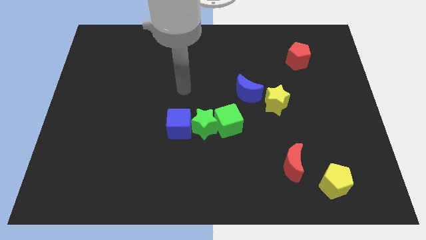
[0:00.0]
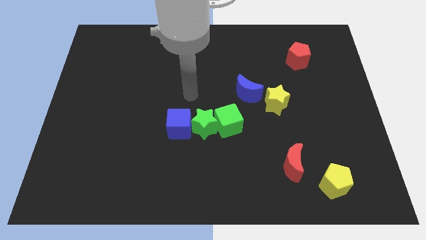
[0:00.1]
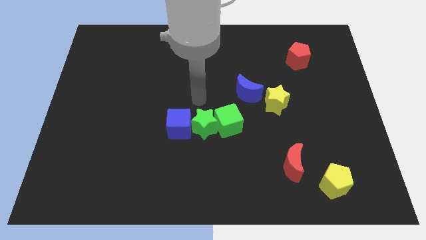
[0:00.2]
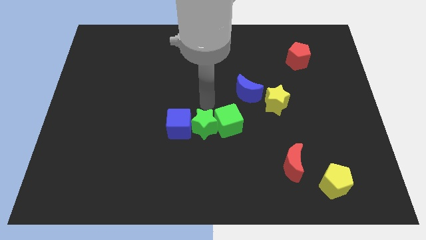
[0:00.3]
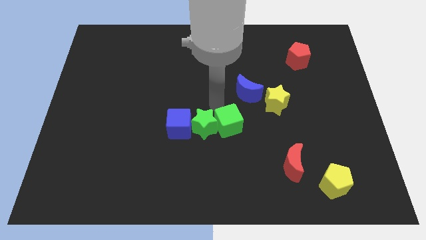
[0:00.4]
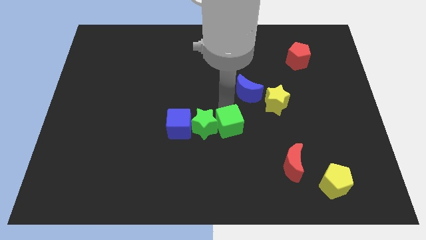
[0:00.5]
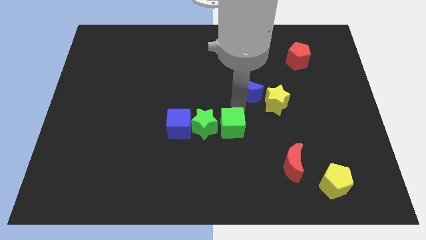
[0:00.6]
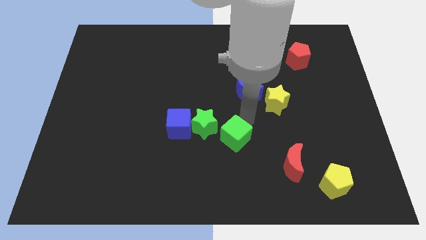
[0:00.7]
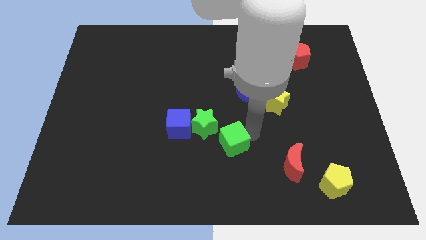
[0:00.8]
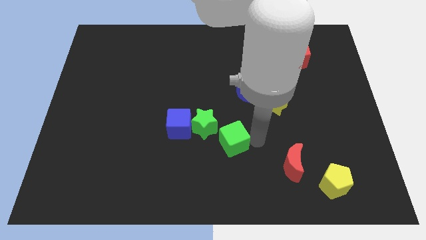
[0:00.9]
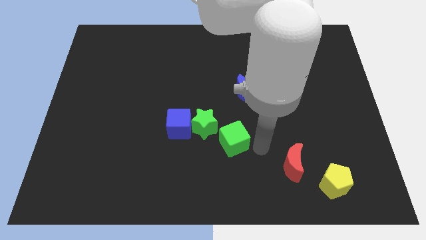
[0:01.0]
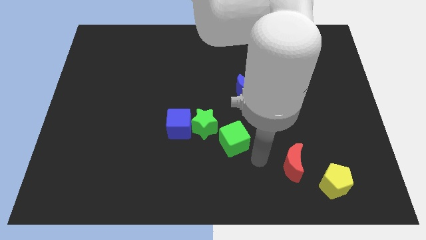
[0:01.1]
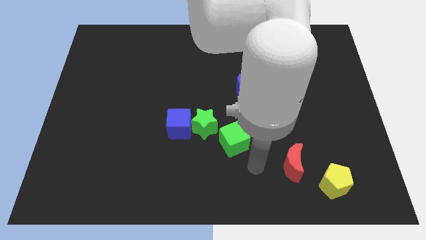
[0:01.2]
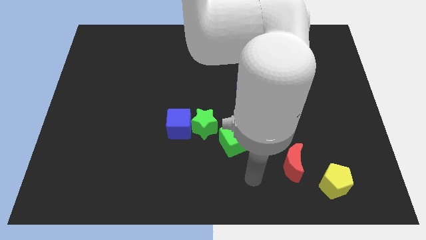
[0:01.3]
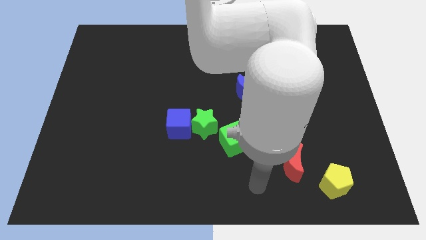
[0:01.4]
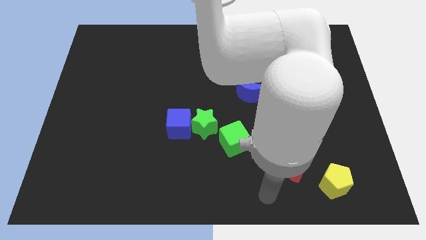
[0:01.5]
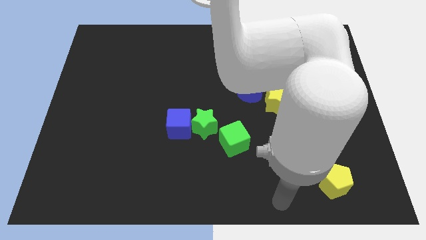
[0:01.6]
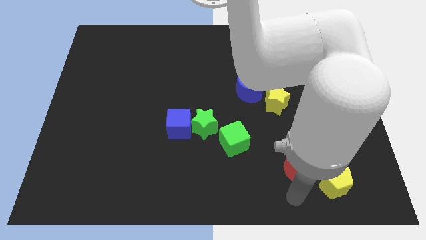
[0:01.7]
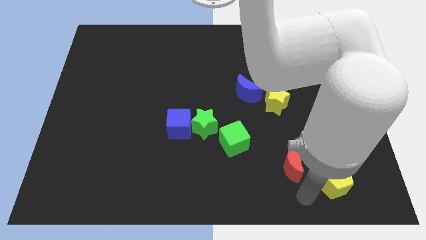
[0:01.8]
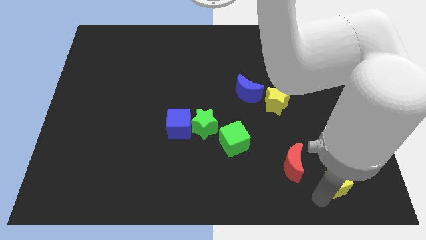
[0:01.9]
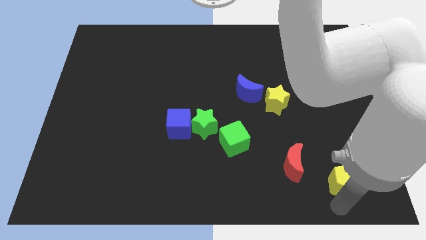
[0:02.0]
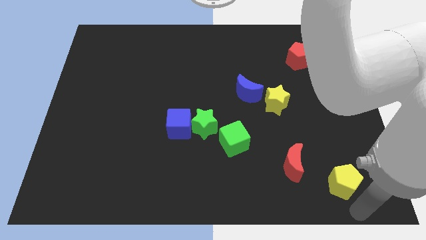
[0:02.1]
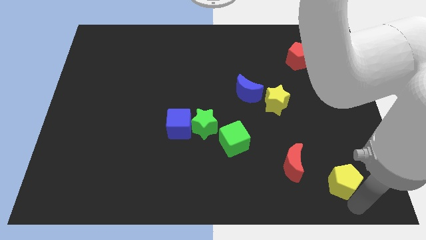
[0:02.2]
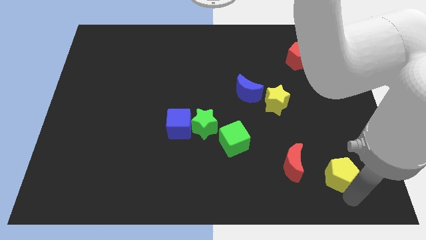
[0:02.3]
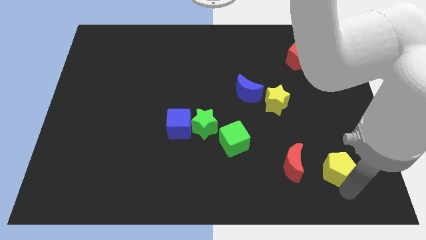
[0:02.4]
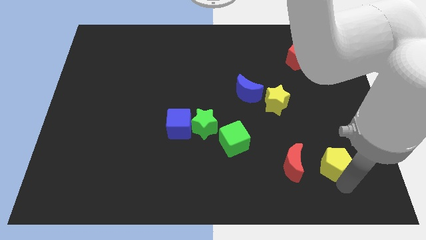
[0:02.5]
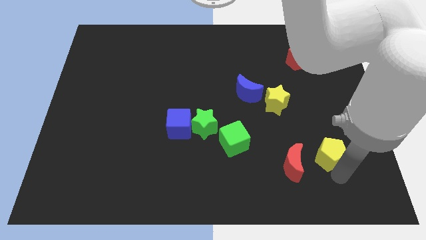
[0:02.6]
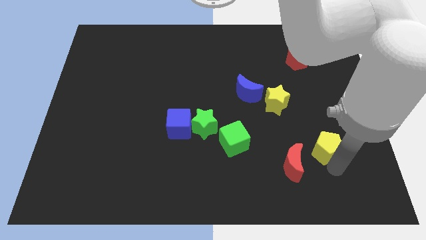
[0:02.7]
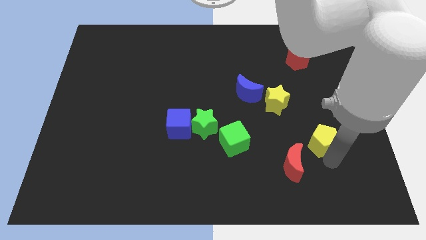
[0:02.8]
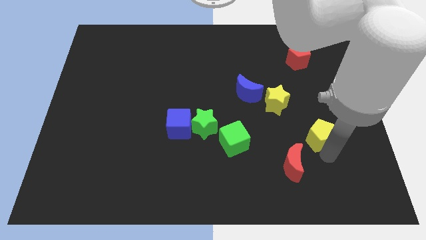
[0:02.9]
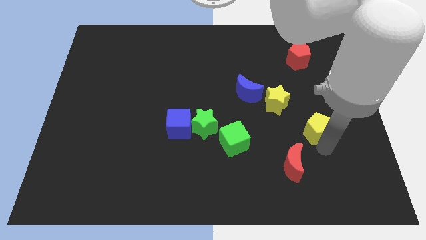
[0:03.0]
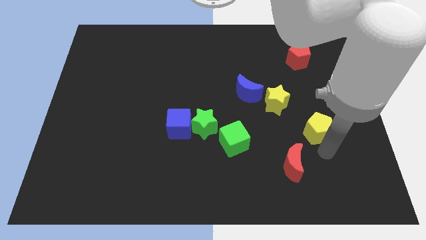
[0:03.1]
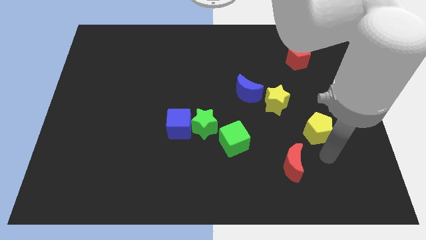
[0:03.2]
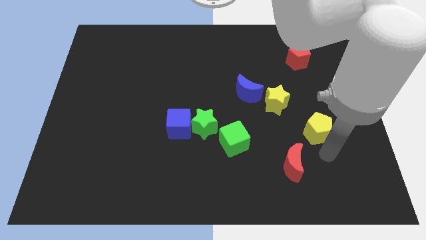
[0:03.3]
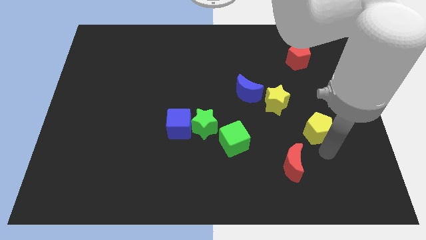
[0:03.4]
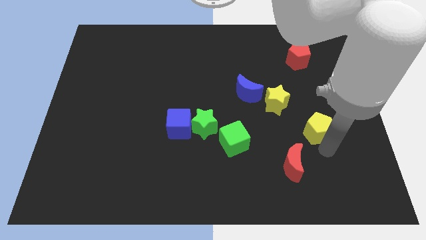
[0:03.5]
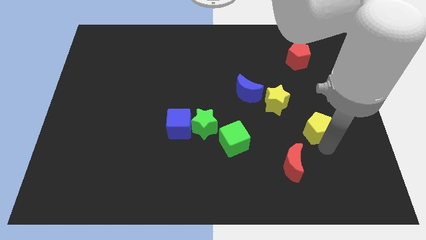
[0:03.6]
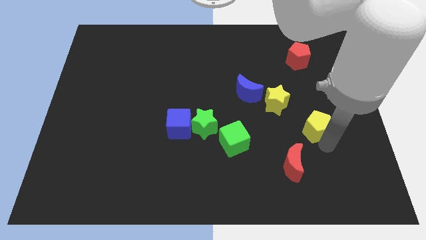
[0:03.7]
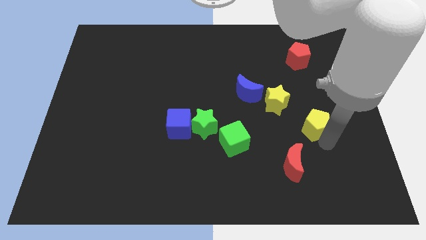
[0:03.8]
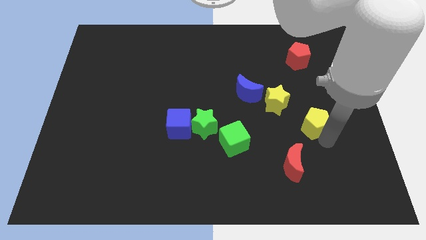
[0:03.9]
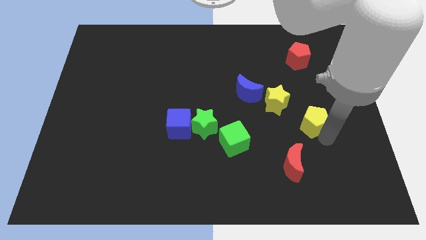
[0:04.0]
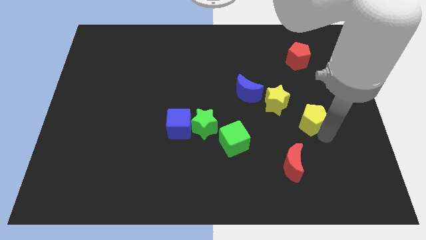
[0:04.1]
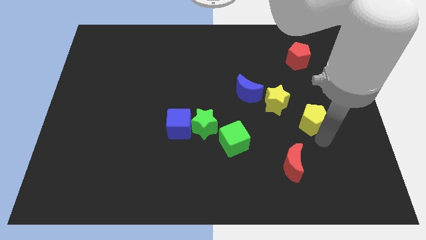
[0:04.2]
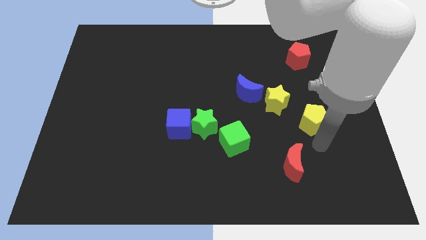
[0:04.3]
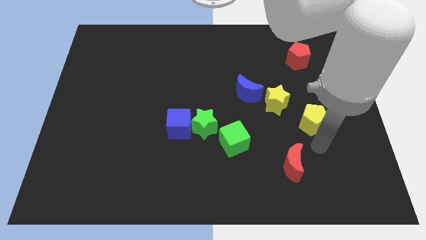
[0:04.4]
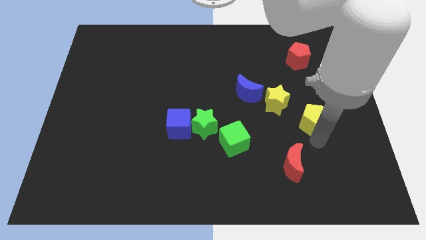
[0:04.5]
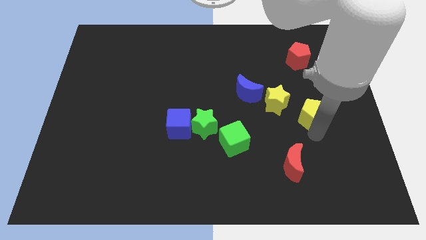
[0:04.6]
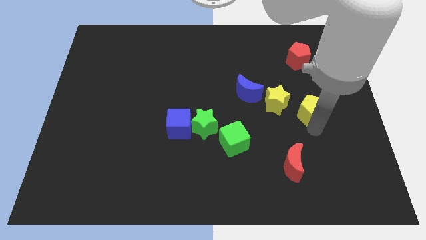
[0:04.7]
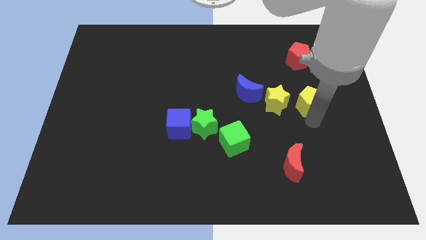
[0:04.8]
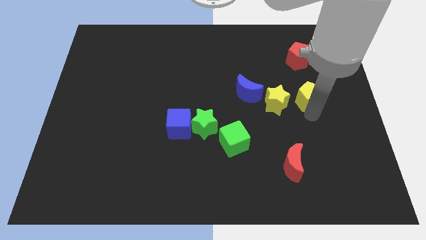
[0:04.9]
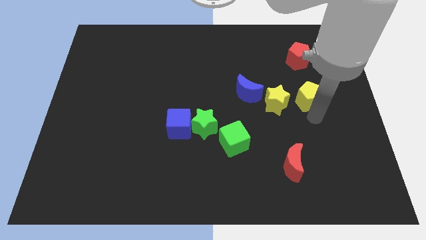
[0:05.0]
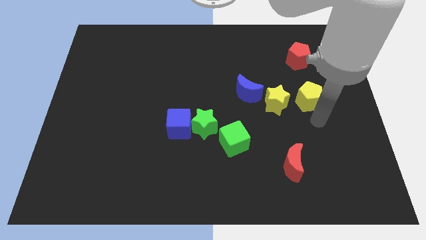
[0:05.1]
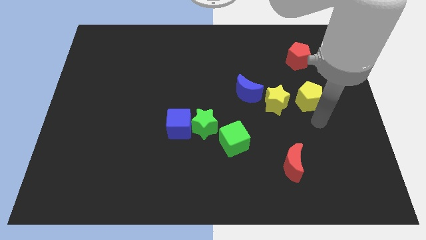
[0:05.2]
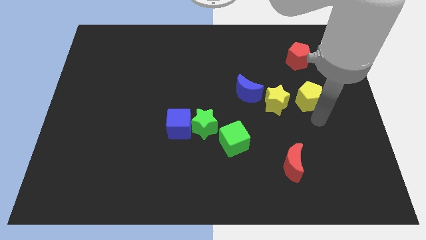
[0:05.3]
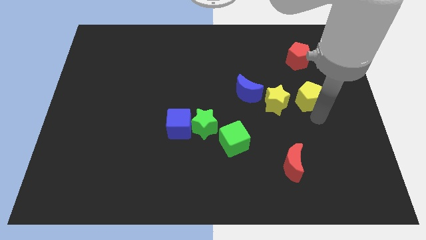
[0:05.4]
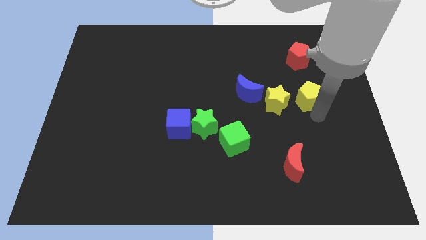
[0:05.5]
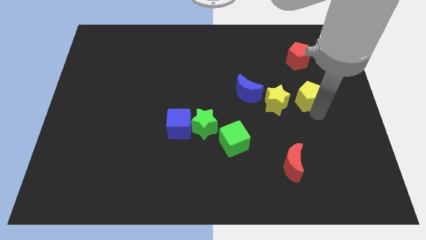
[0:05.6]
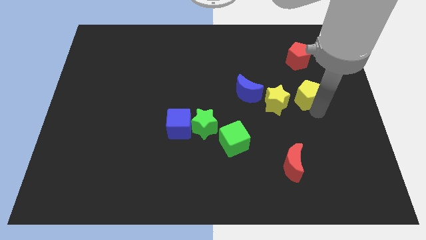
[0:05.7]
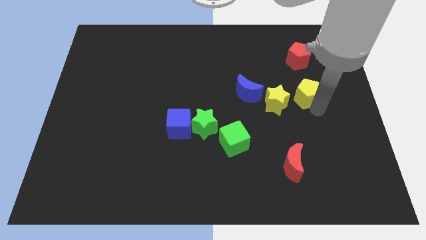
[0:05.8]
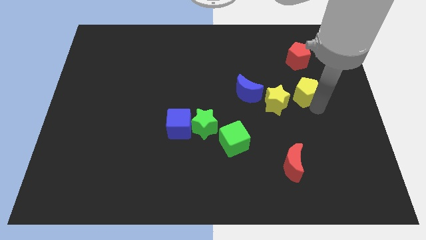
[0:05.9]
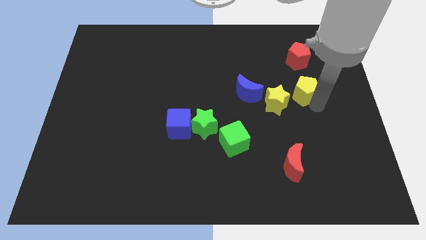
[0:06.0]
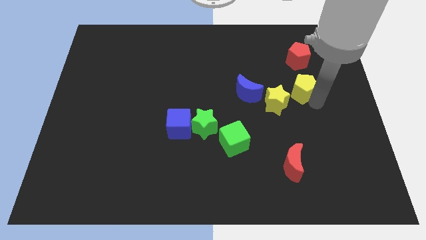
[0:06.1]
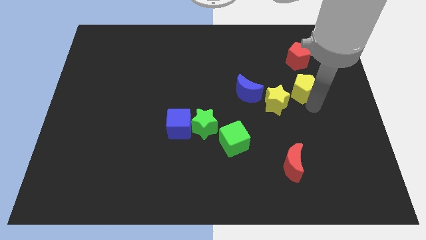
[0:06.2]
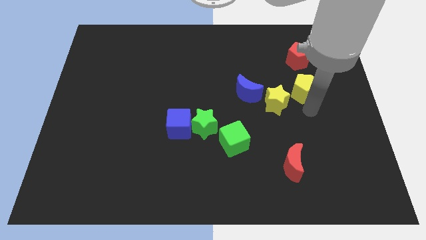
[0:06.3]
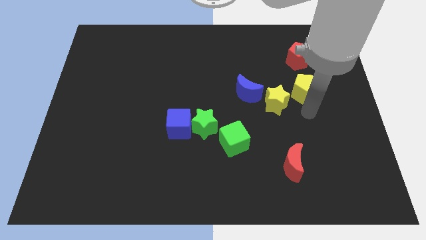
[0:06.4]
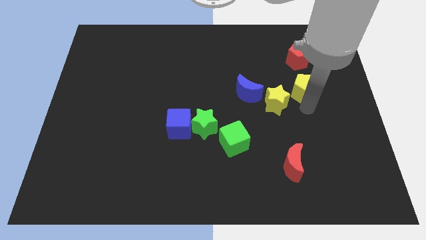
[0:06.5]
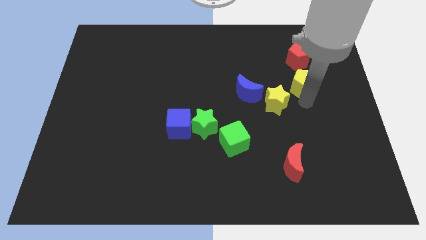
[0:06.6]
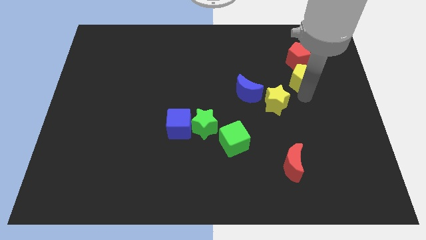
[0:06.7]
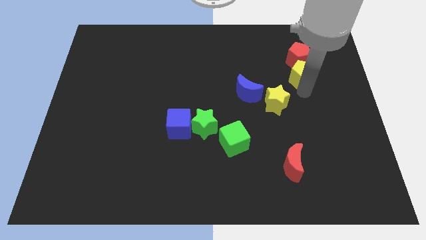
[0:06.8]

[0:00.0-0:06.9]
slide the yellow pentagon close to the red pentagon

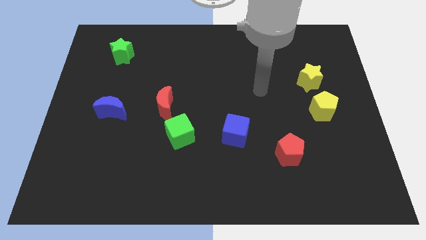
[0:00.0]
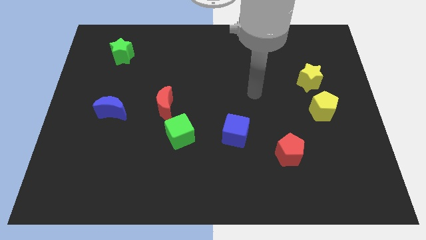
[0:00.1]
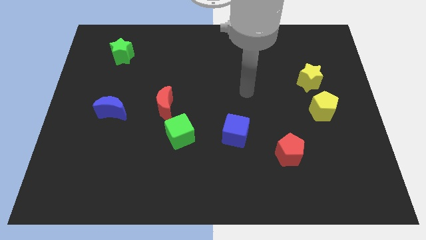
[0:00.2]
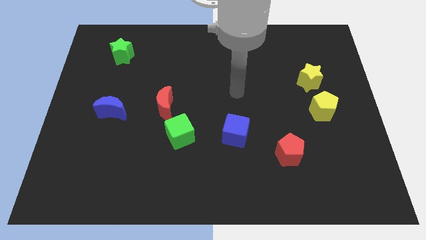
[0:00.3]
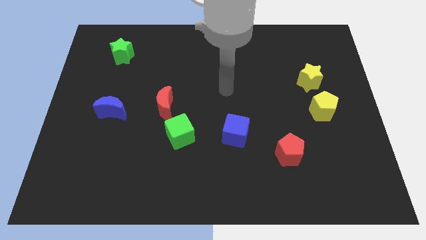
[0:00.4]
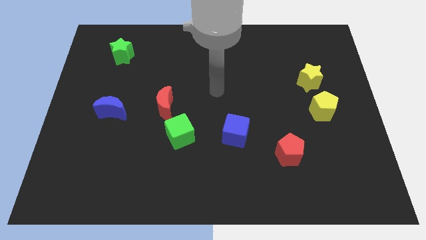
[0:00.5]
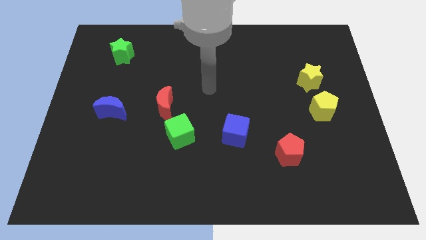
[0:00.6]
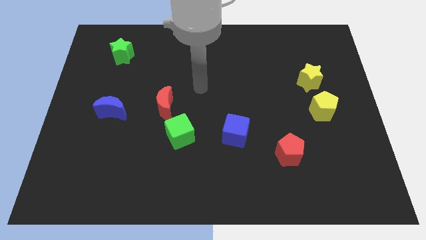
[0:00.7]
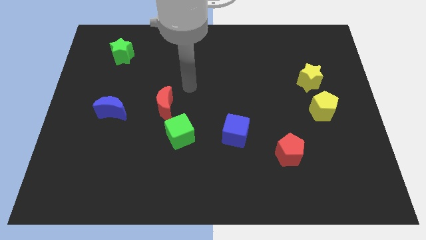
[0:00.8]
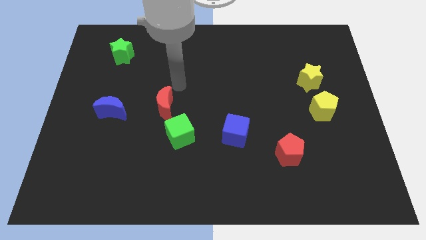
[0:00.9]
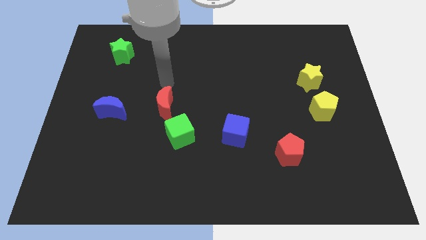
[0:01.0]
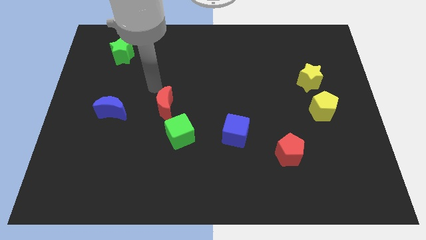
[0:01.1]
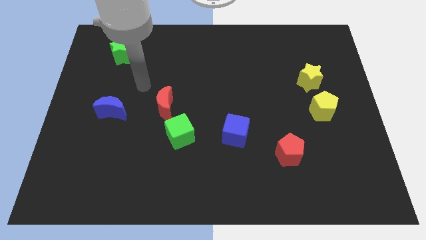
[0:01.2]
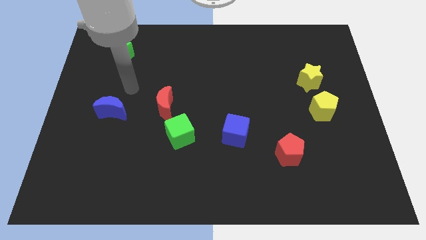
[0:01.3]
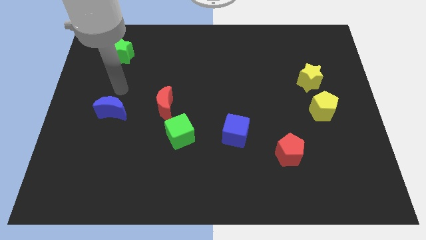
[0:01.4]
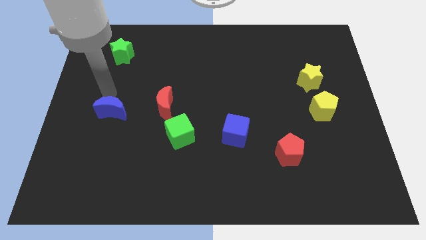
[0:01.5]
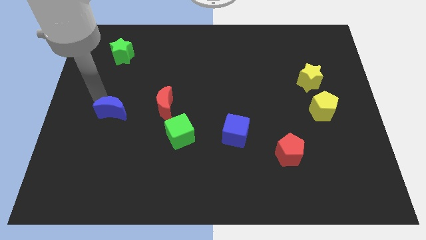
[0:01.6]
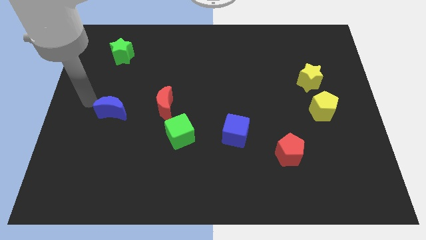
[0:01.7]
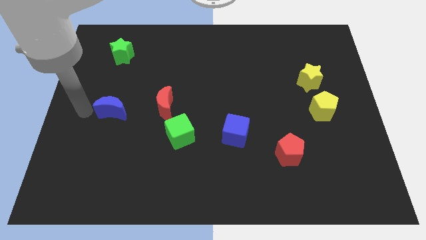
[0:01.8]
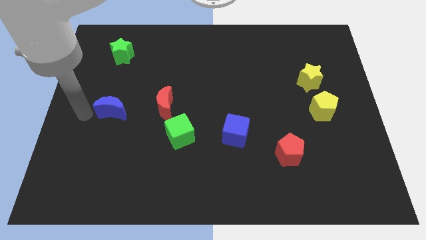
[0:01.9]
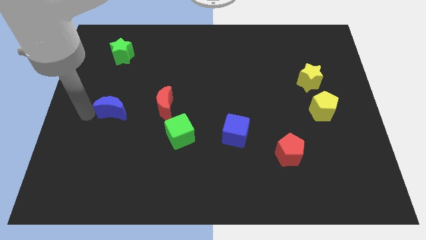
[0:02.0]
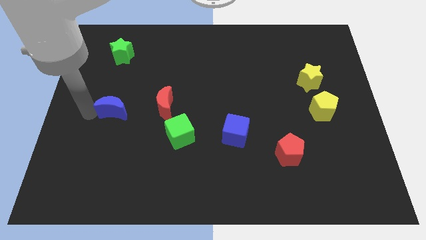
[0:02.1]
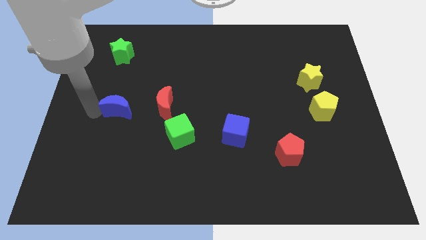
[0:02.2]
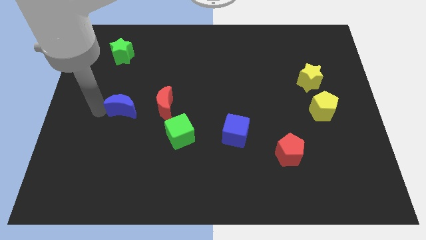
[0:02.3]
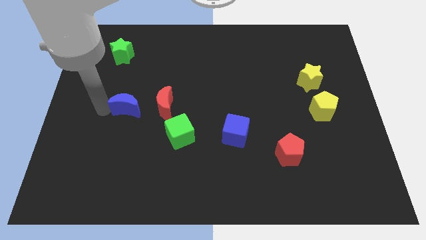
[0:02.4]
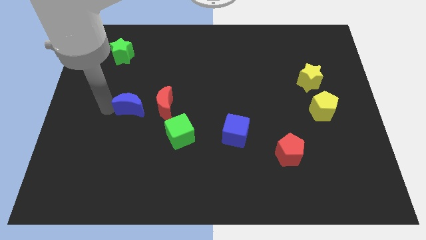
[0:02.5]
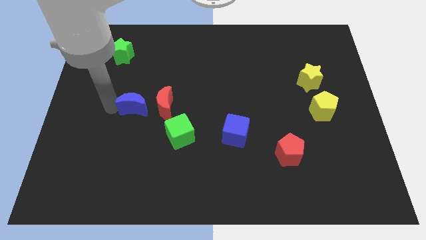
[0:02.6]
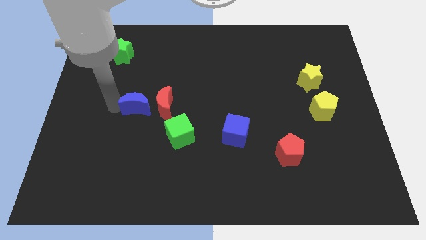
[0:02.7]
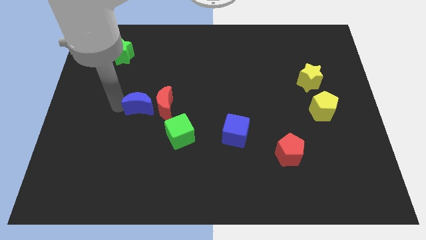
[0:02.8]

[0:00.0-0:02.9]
put the blue moon next to the red moon
